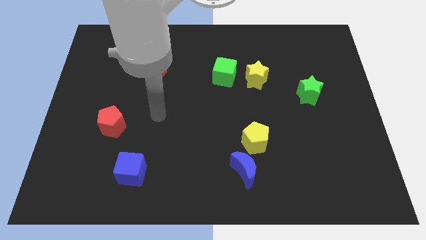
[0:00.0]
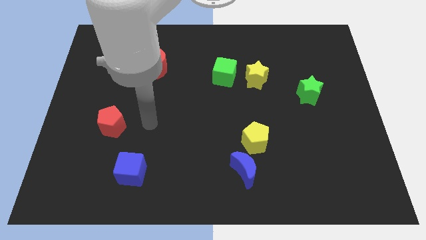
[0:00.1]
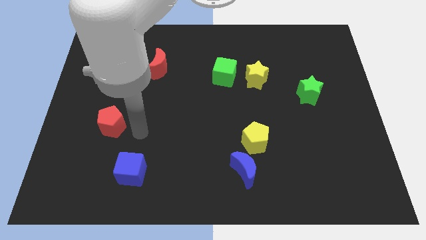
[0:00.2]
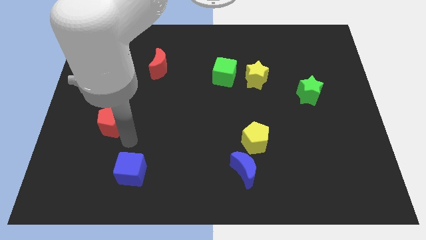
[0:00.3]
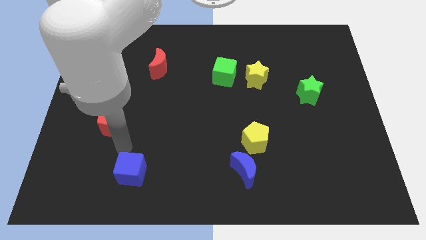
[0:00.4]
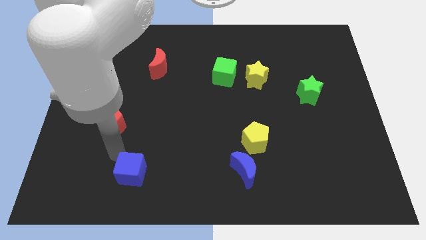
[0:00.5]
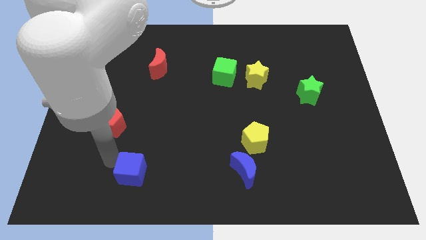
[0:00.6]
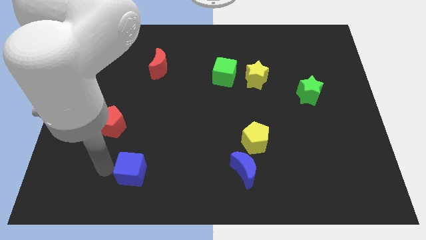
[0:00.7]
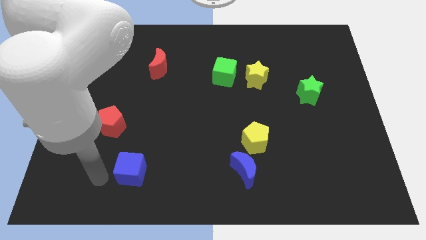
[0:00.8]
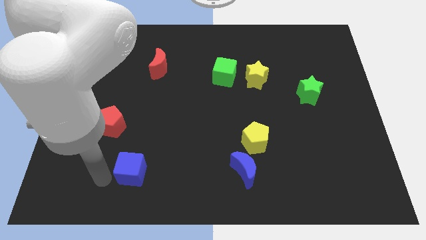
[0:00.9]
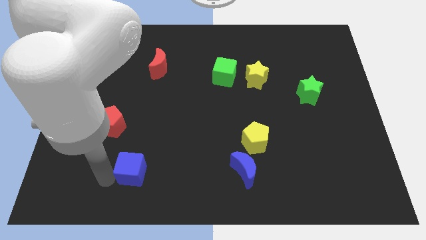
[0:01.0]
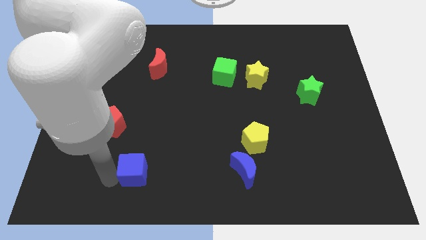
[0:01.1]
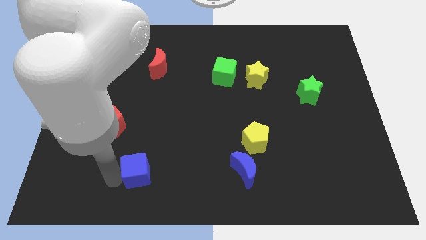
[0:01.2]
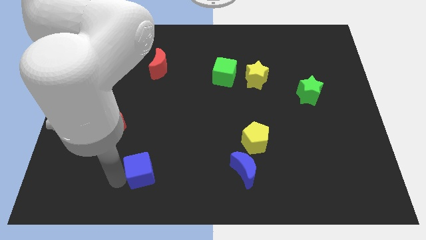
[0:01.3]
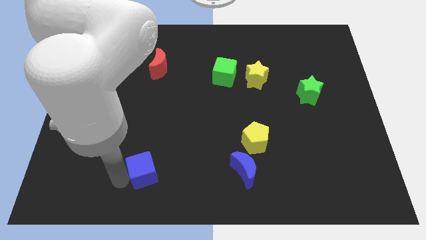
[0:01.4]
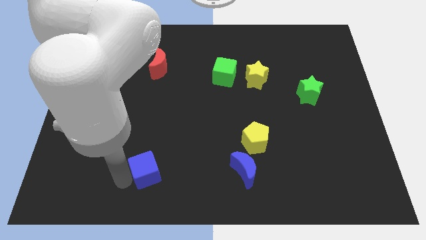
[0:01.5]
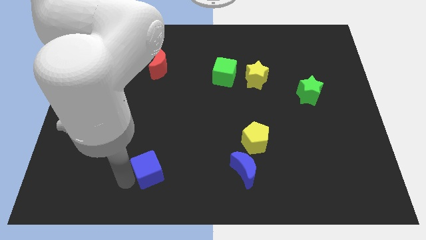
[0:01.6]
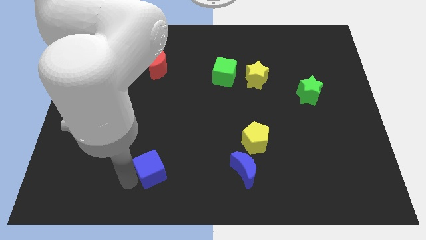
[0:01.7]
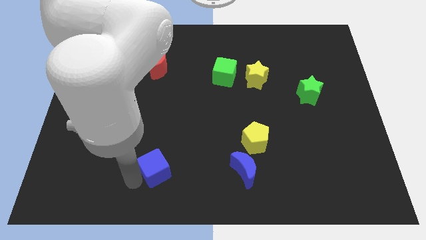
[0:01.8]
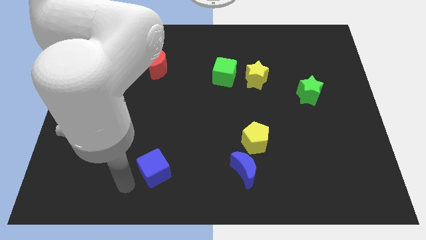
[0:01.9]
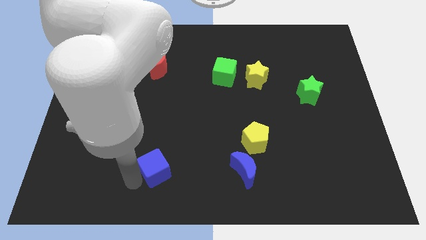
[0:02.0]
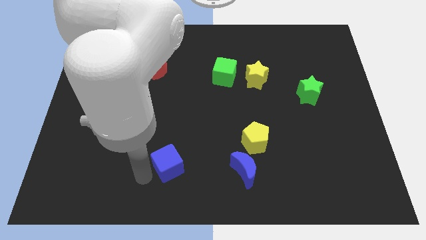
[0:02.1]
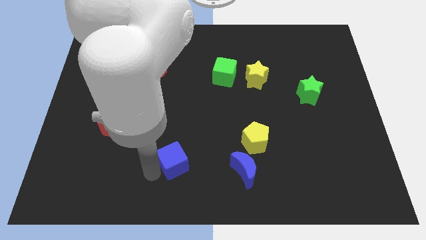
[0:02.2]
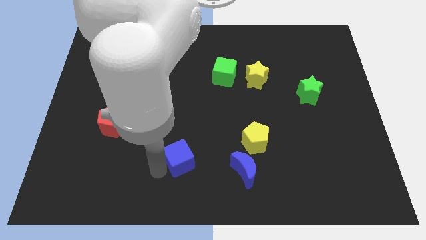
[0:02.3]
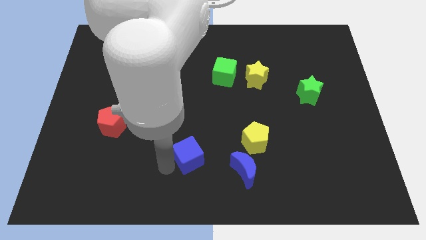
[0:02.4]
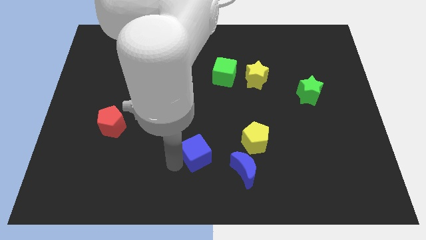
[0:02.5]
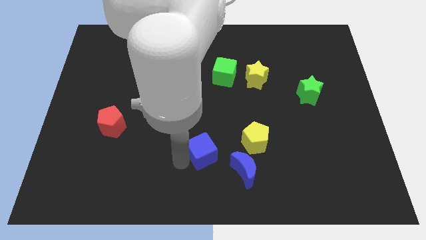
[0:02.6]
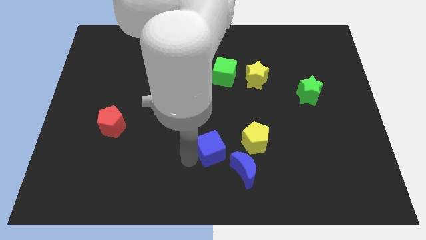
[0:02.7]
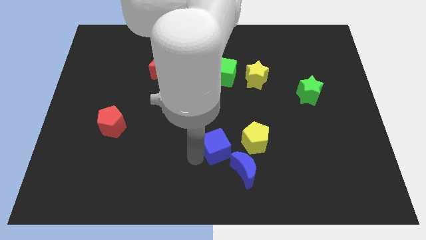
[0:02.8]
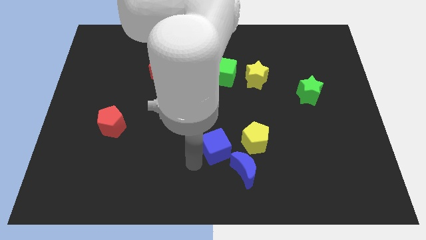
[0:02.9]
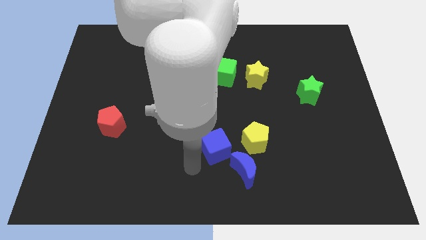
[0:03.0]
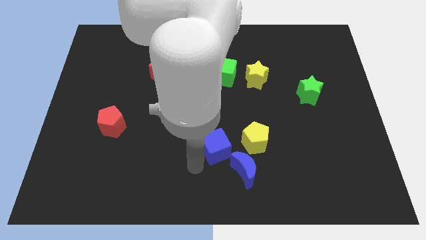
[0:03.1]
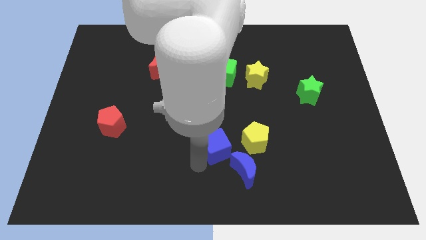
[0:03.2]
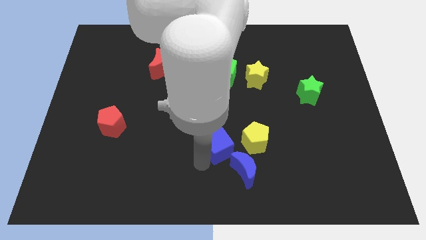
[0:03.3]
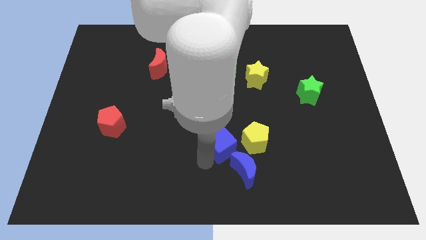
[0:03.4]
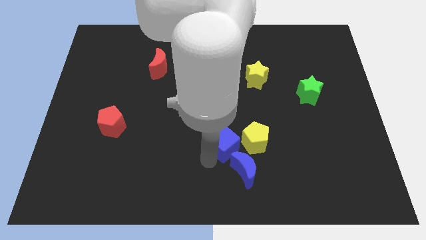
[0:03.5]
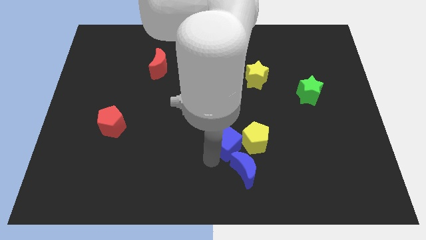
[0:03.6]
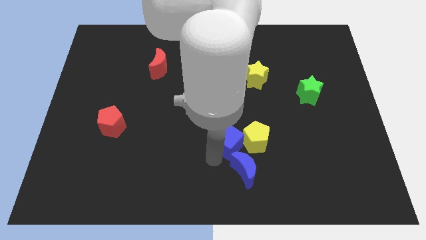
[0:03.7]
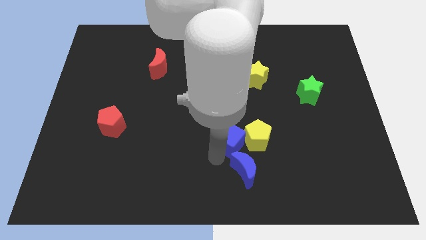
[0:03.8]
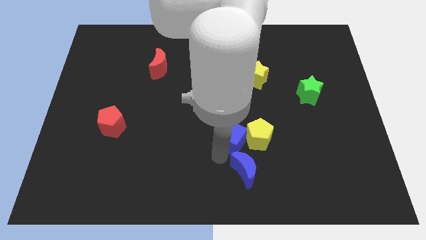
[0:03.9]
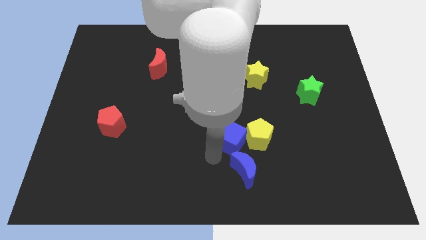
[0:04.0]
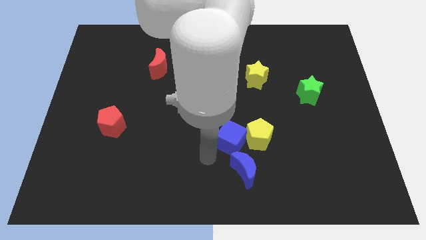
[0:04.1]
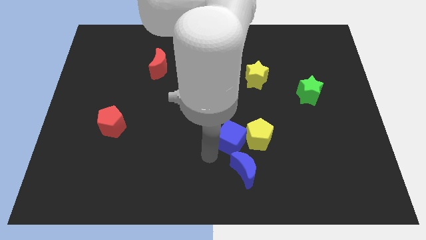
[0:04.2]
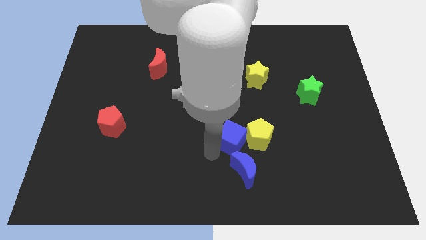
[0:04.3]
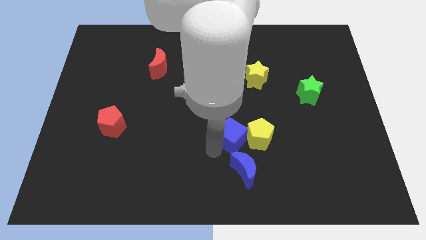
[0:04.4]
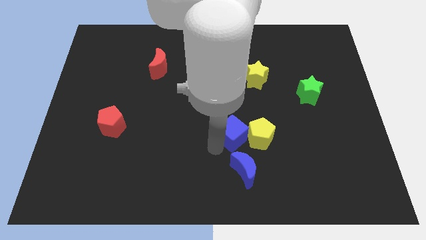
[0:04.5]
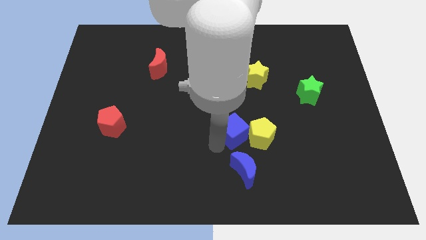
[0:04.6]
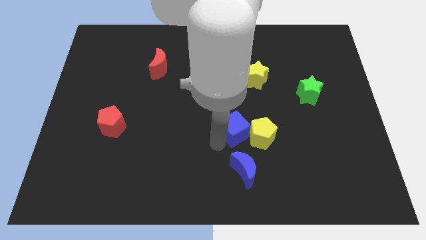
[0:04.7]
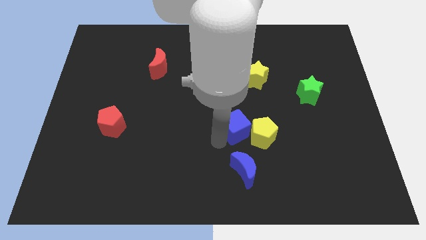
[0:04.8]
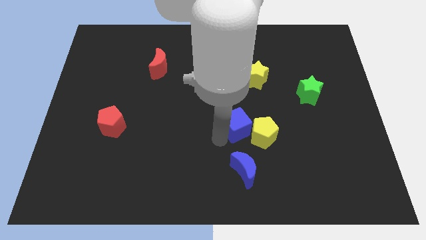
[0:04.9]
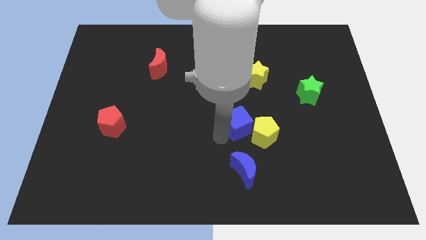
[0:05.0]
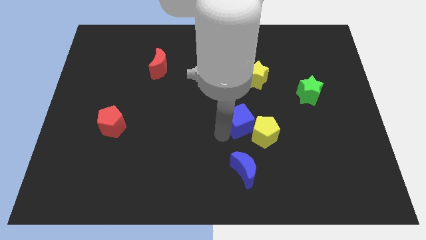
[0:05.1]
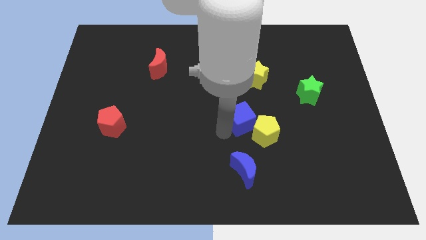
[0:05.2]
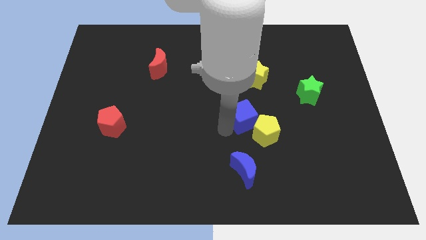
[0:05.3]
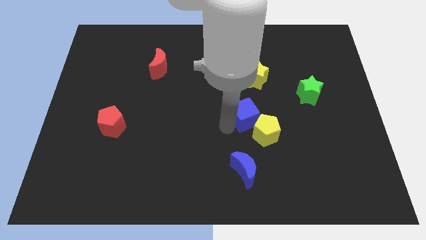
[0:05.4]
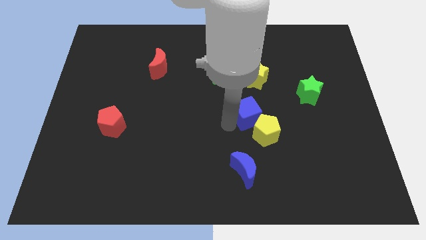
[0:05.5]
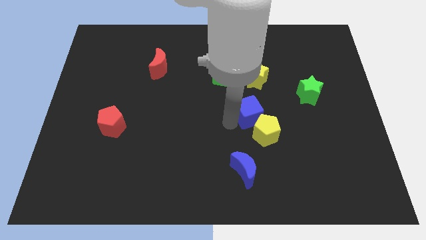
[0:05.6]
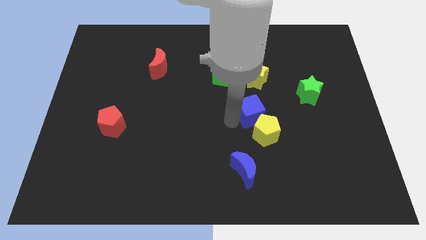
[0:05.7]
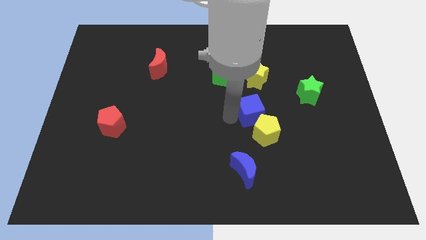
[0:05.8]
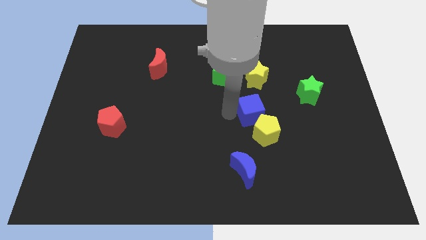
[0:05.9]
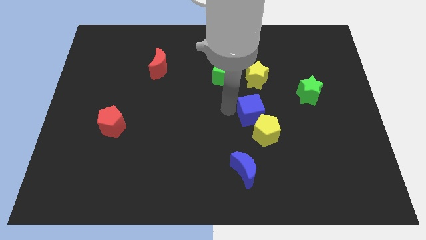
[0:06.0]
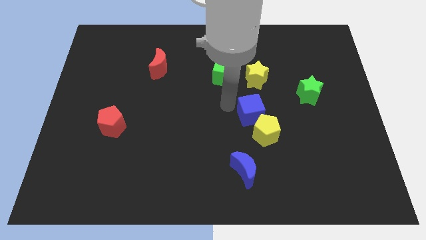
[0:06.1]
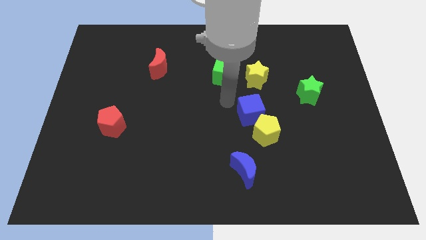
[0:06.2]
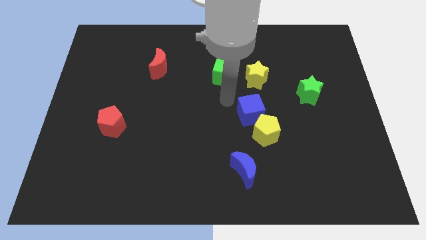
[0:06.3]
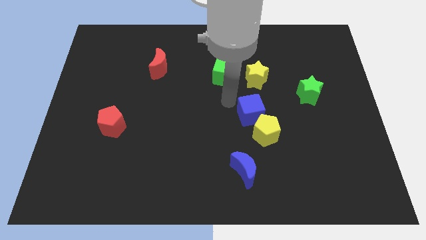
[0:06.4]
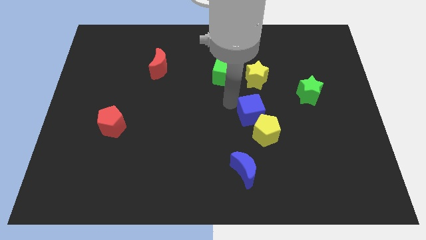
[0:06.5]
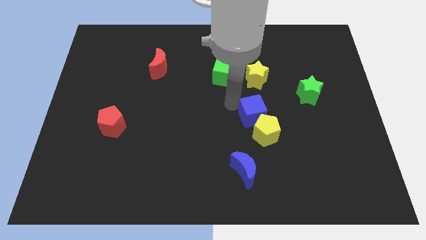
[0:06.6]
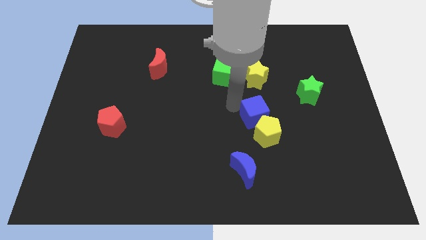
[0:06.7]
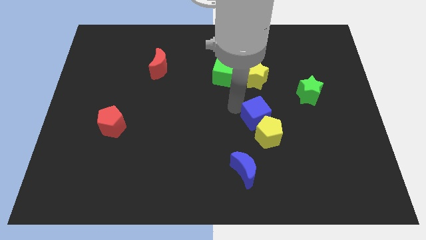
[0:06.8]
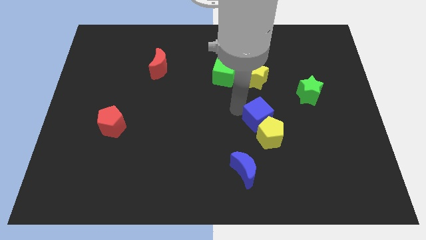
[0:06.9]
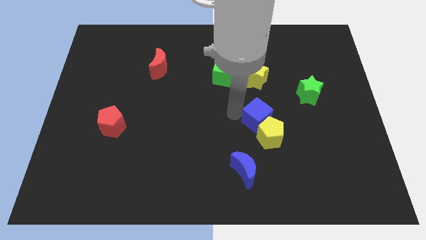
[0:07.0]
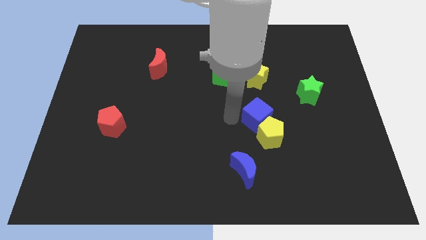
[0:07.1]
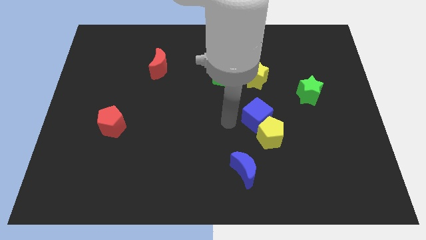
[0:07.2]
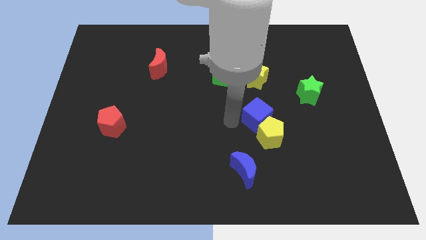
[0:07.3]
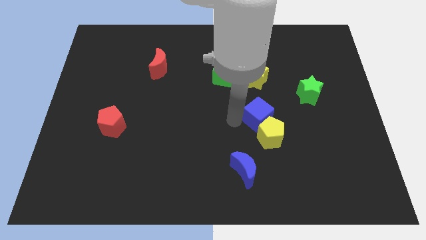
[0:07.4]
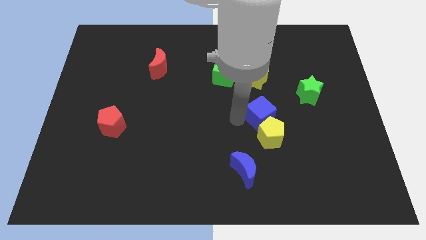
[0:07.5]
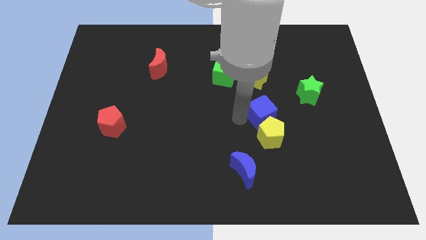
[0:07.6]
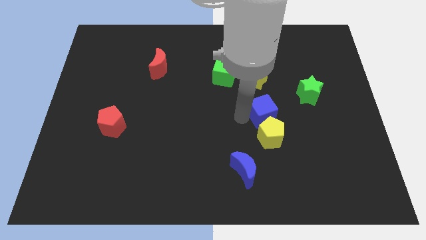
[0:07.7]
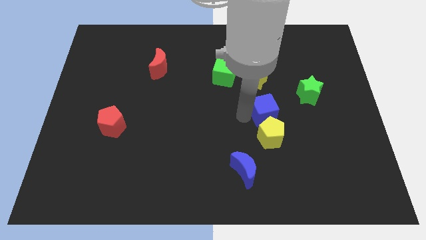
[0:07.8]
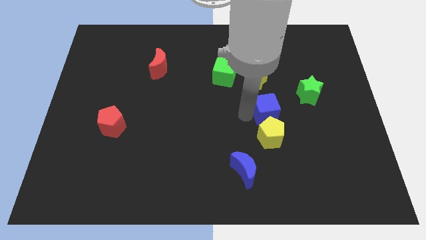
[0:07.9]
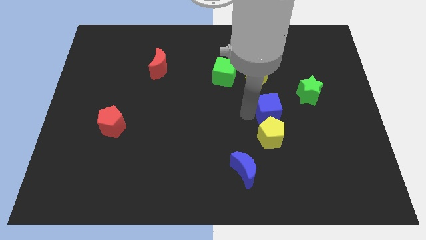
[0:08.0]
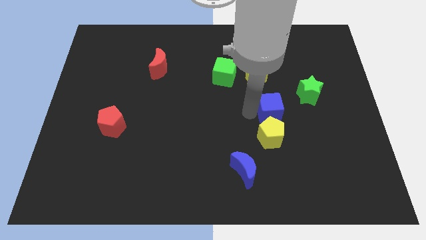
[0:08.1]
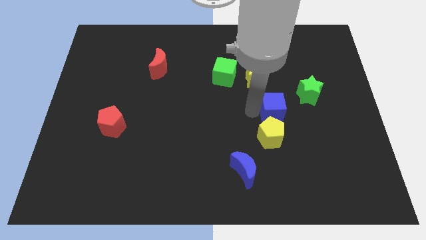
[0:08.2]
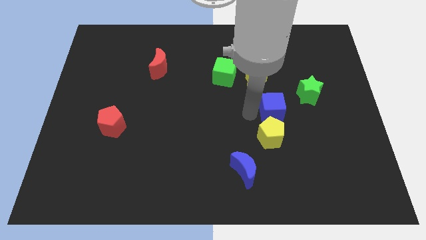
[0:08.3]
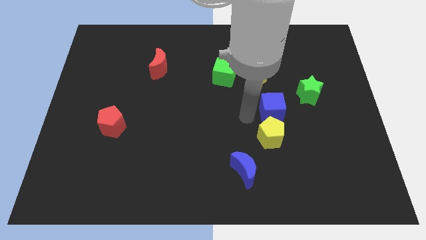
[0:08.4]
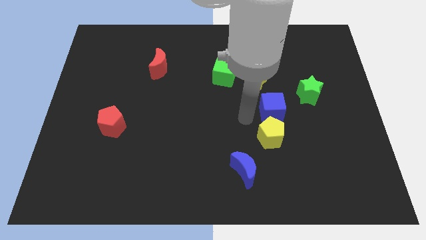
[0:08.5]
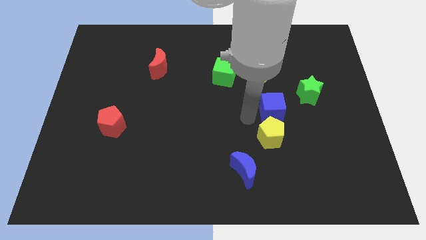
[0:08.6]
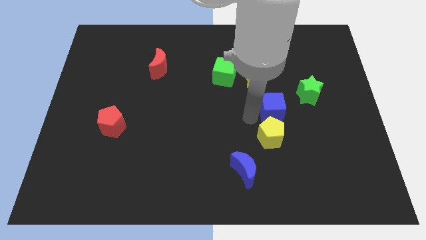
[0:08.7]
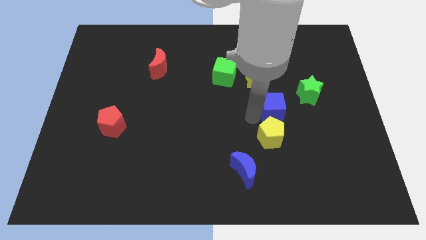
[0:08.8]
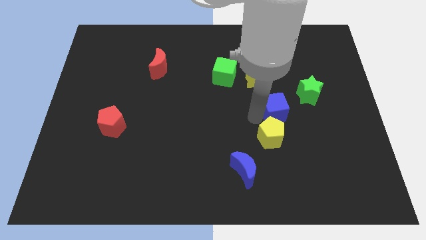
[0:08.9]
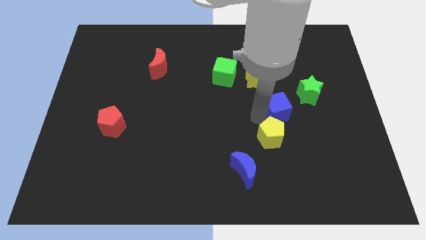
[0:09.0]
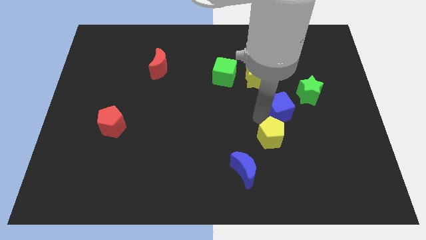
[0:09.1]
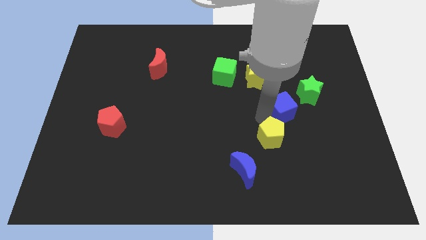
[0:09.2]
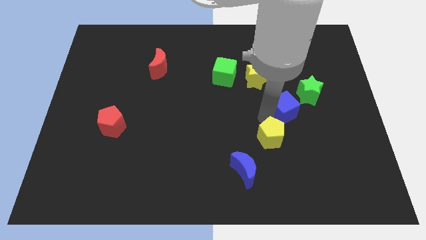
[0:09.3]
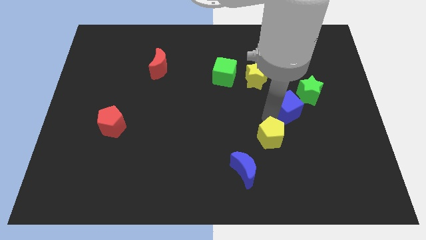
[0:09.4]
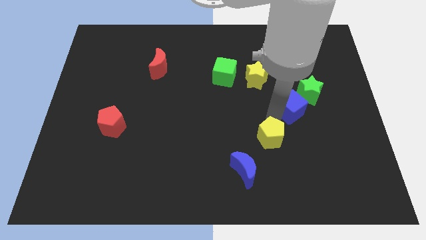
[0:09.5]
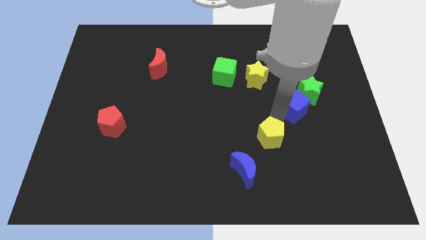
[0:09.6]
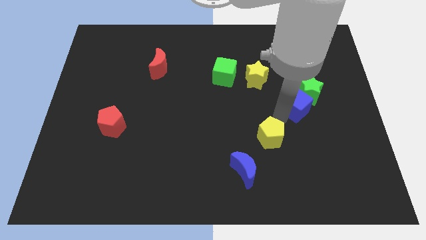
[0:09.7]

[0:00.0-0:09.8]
push the blue cube towards the green star
